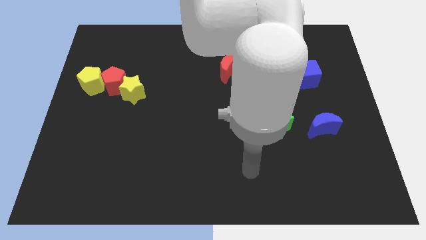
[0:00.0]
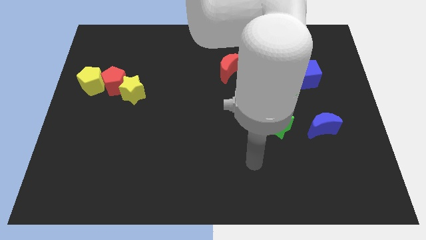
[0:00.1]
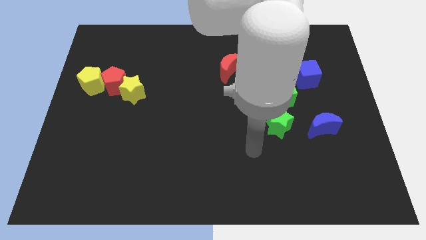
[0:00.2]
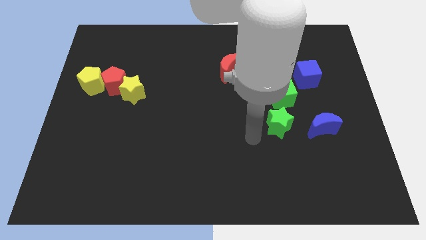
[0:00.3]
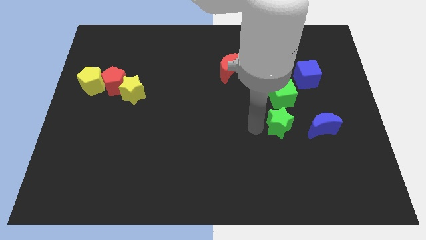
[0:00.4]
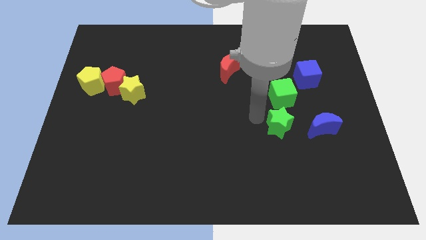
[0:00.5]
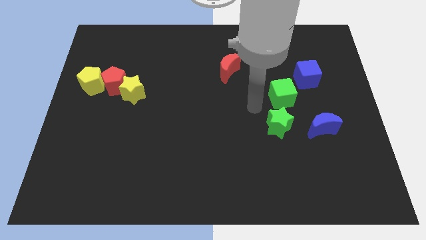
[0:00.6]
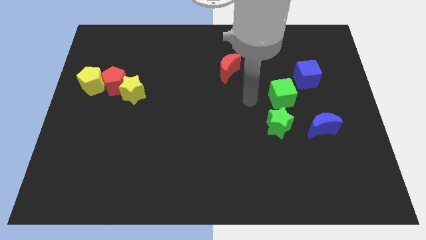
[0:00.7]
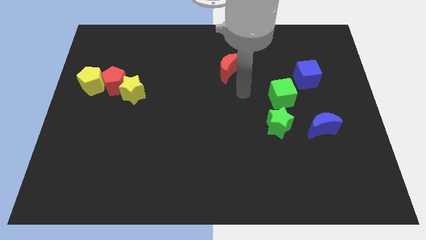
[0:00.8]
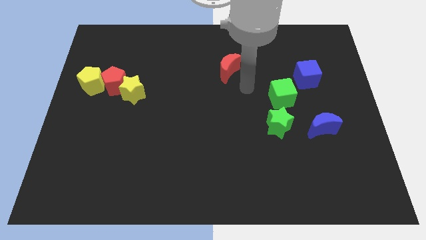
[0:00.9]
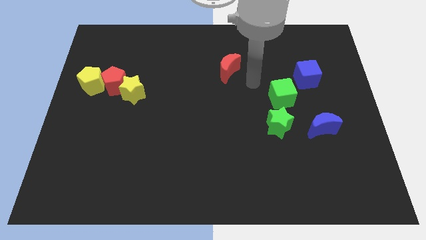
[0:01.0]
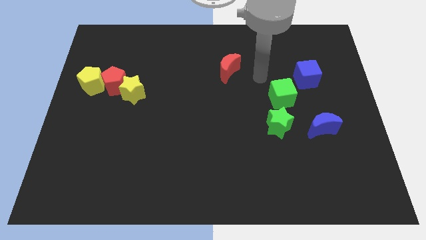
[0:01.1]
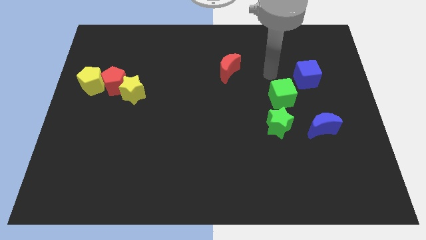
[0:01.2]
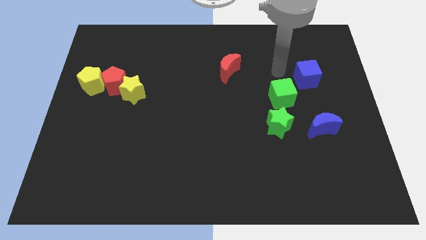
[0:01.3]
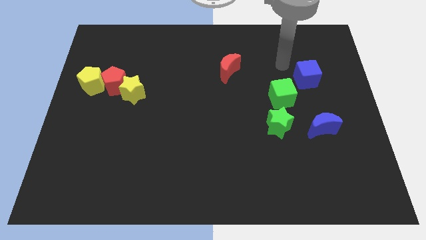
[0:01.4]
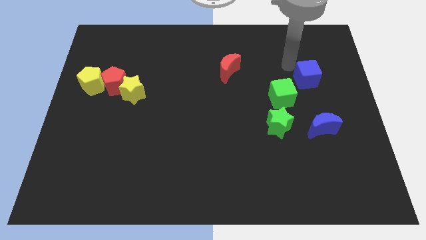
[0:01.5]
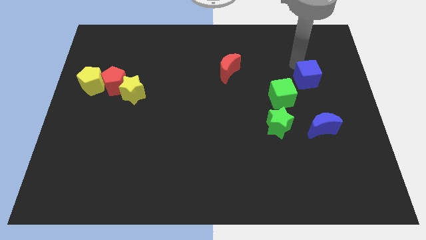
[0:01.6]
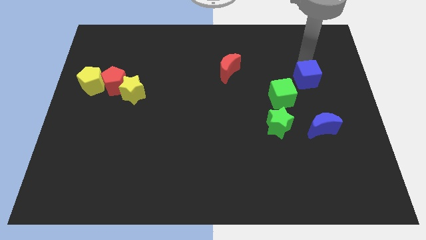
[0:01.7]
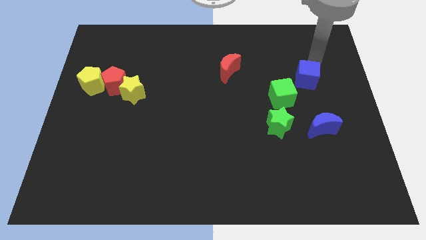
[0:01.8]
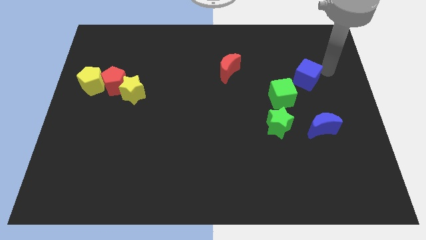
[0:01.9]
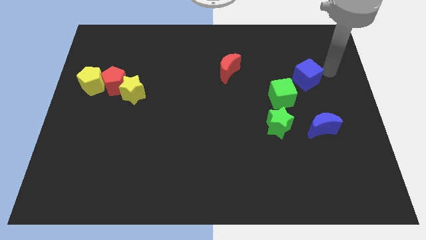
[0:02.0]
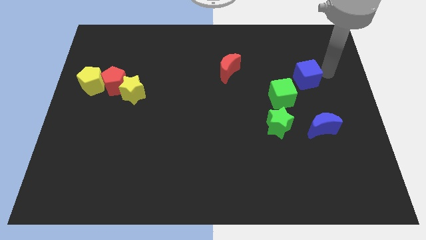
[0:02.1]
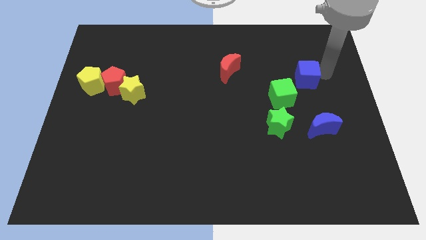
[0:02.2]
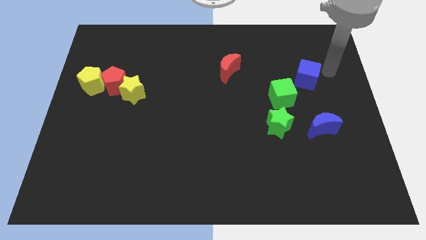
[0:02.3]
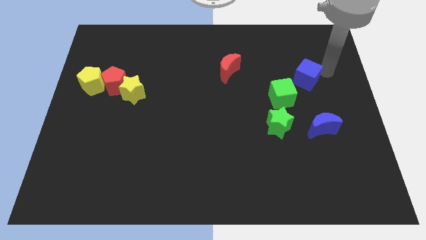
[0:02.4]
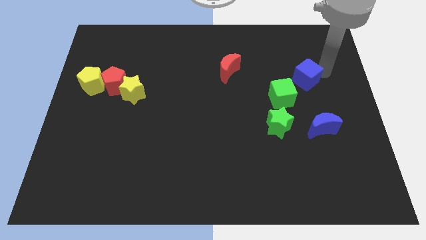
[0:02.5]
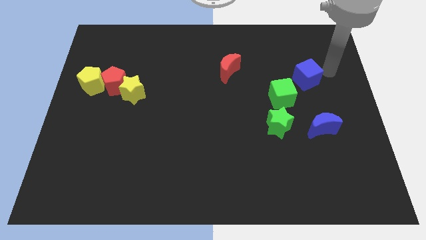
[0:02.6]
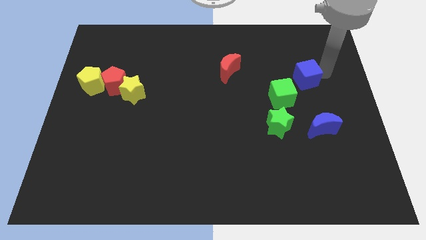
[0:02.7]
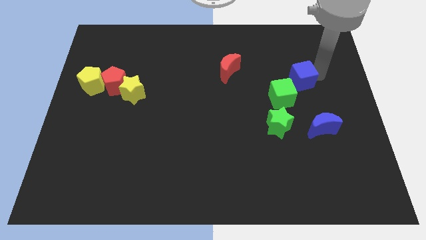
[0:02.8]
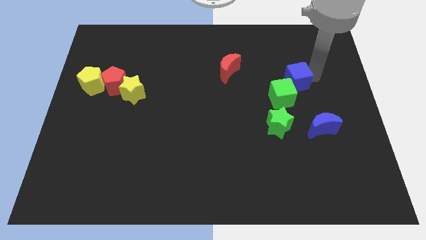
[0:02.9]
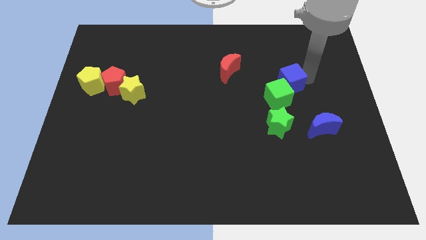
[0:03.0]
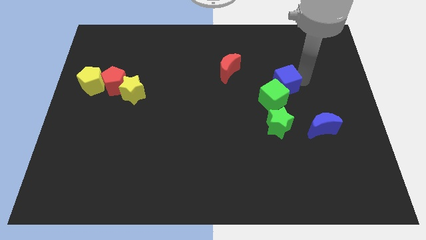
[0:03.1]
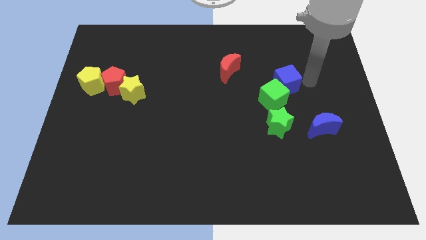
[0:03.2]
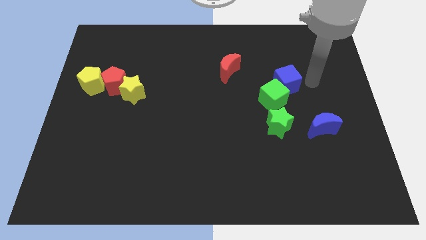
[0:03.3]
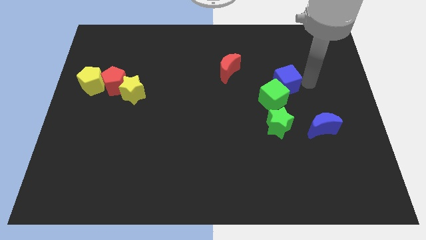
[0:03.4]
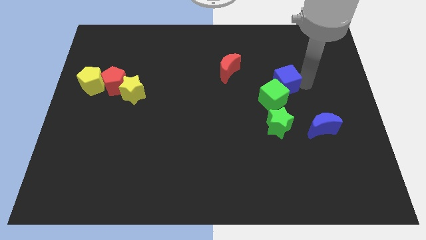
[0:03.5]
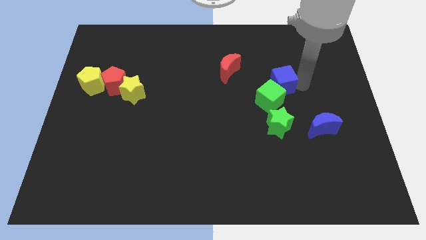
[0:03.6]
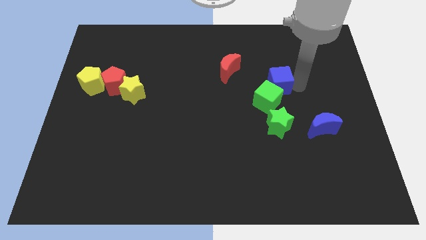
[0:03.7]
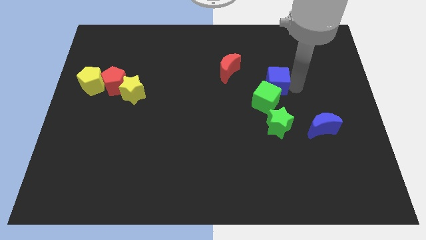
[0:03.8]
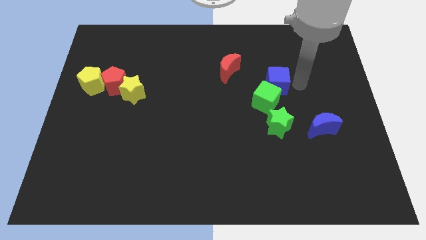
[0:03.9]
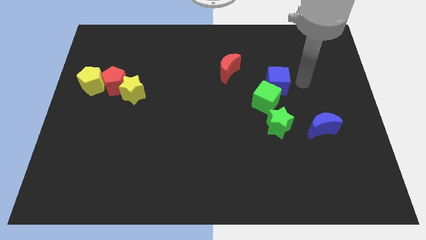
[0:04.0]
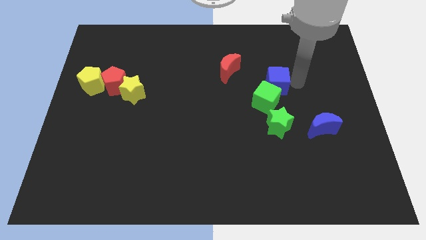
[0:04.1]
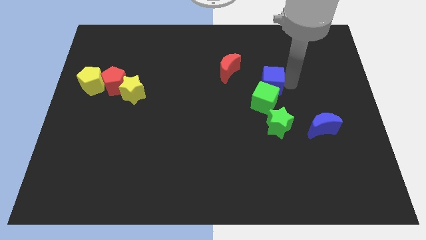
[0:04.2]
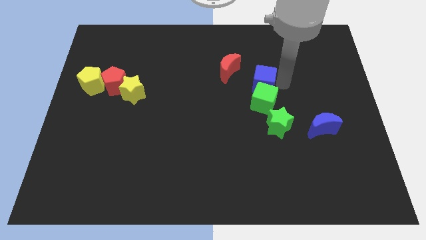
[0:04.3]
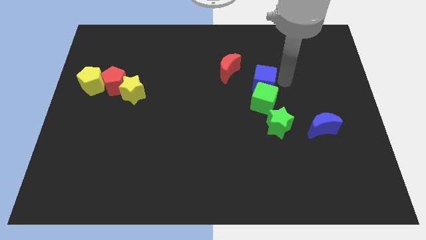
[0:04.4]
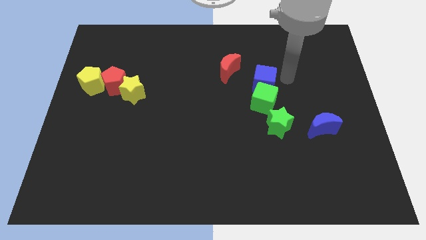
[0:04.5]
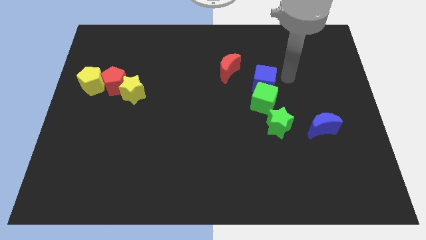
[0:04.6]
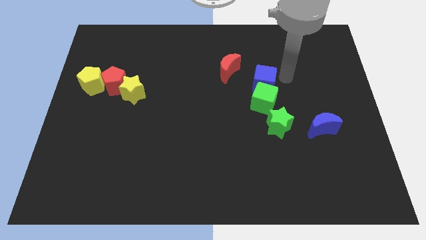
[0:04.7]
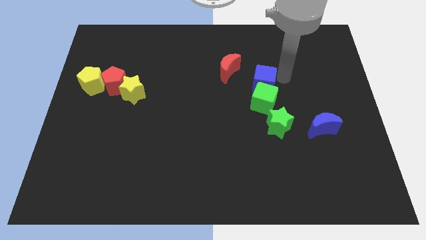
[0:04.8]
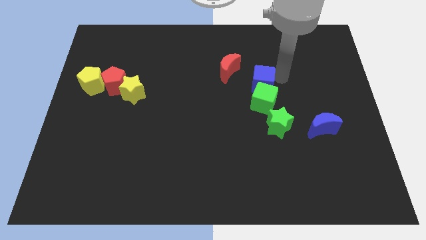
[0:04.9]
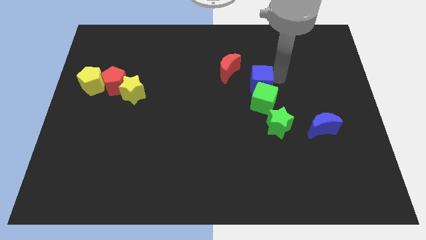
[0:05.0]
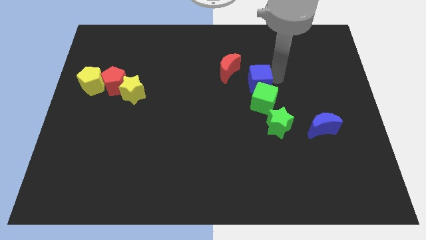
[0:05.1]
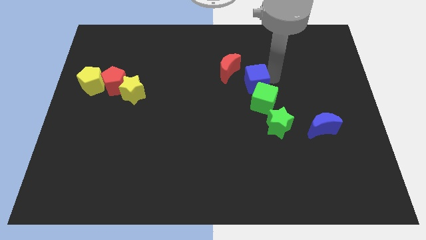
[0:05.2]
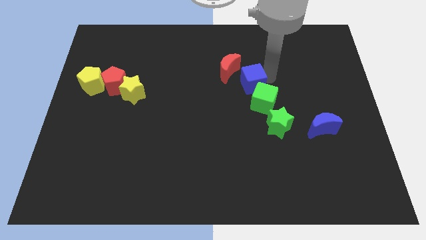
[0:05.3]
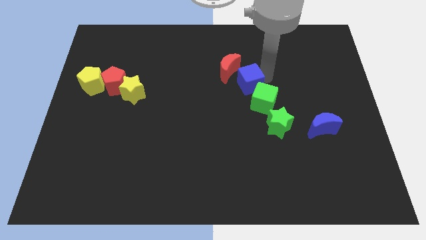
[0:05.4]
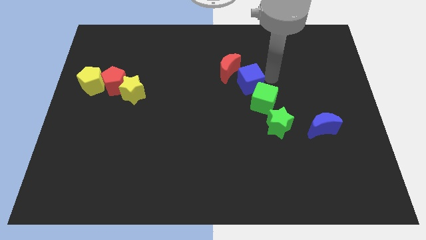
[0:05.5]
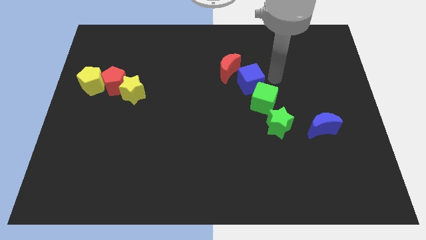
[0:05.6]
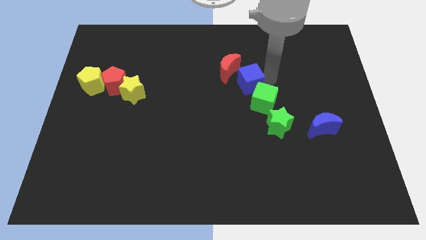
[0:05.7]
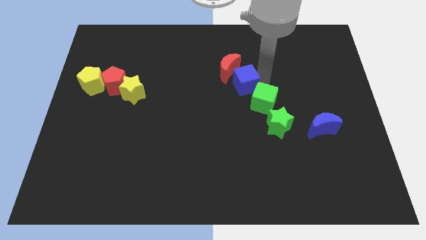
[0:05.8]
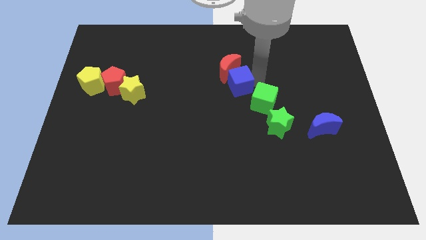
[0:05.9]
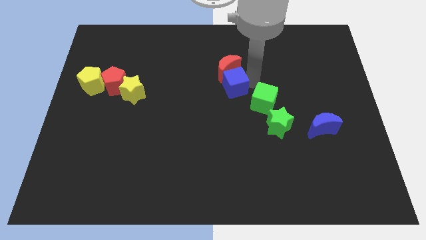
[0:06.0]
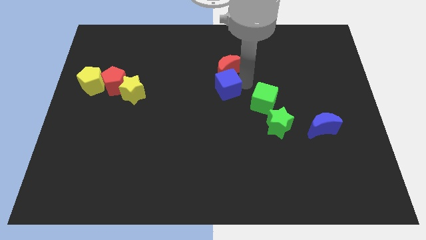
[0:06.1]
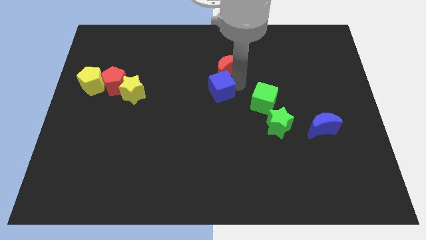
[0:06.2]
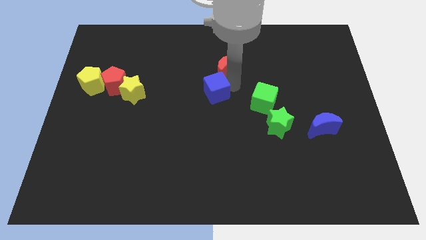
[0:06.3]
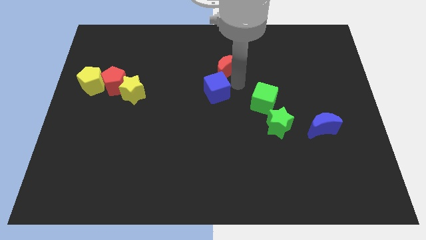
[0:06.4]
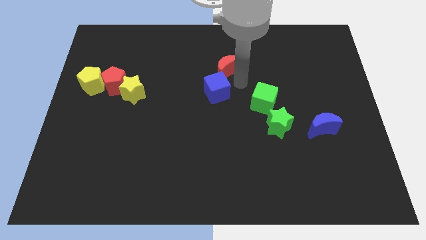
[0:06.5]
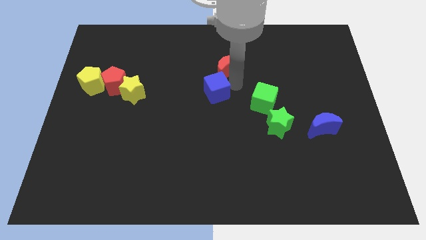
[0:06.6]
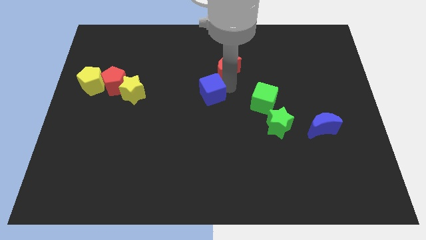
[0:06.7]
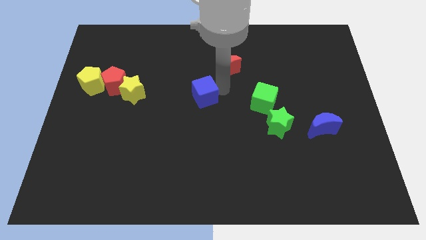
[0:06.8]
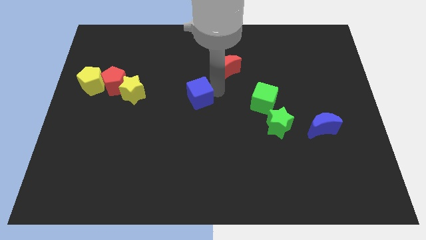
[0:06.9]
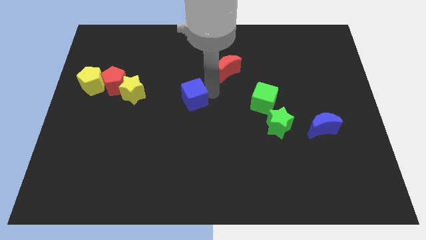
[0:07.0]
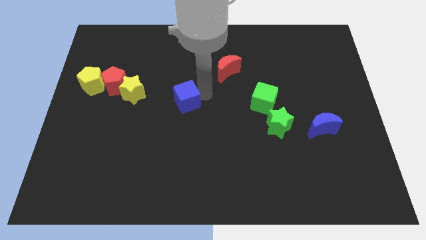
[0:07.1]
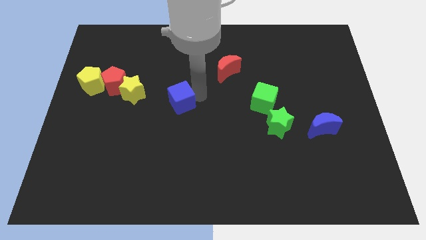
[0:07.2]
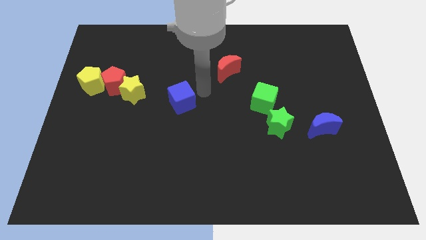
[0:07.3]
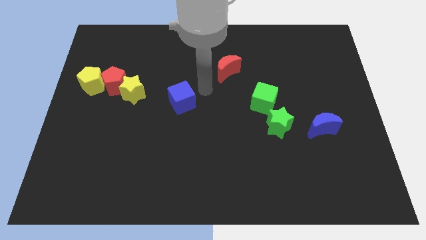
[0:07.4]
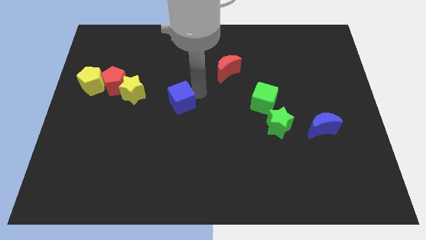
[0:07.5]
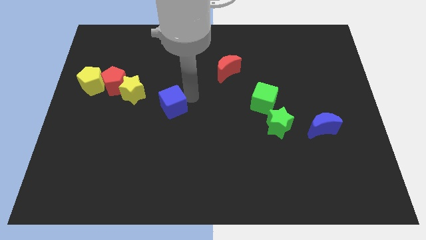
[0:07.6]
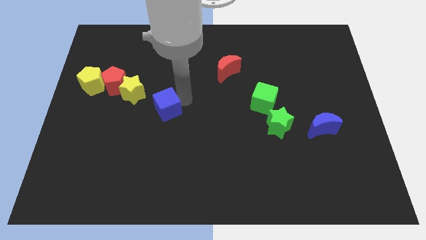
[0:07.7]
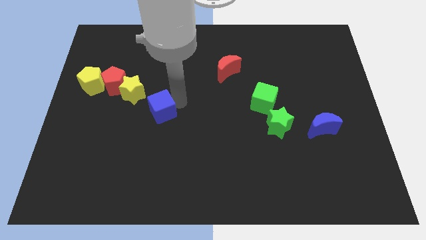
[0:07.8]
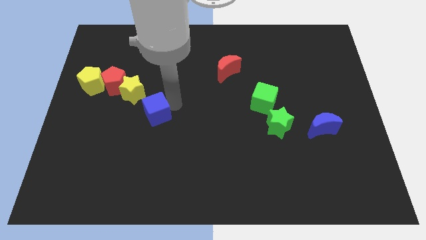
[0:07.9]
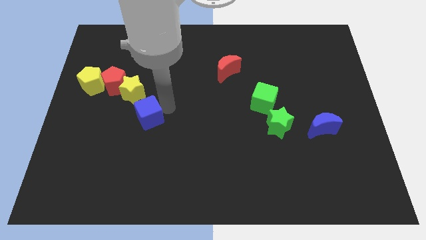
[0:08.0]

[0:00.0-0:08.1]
move the blue cube below the yellow star
